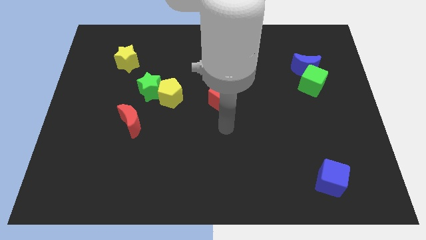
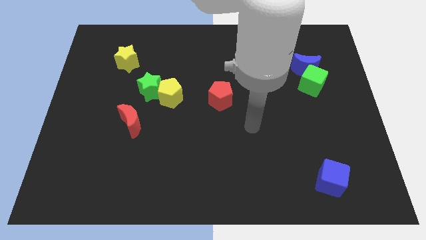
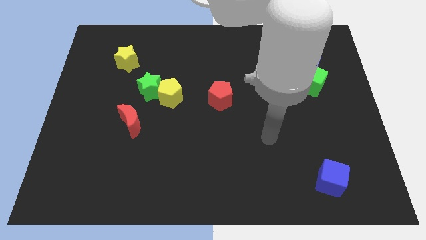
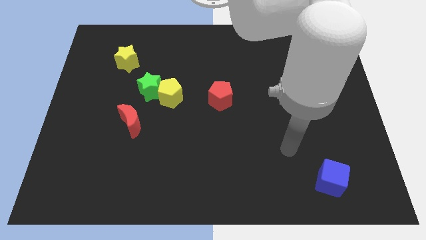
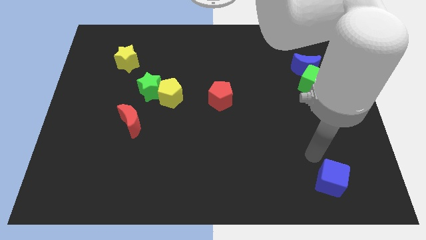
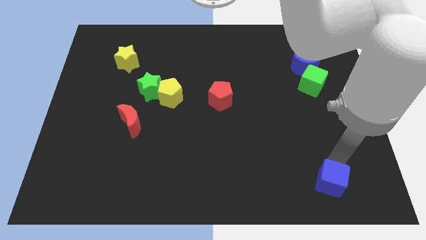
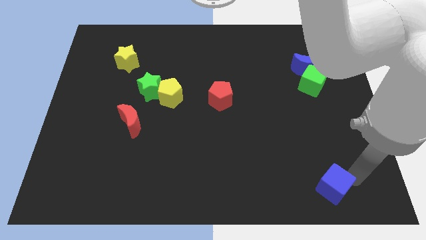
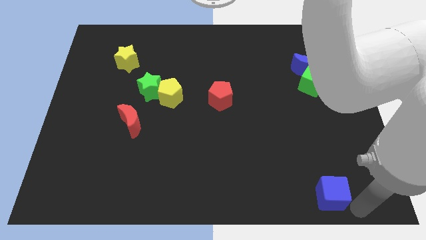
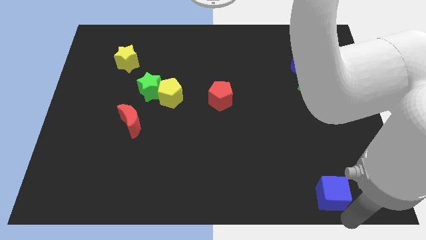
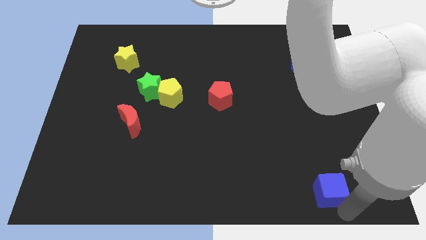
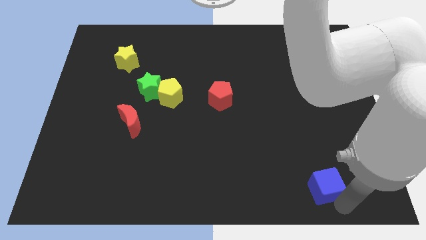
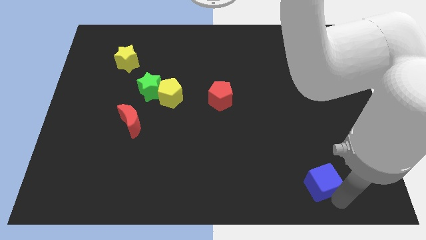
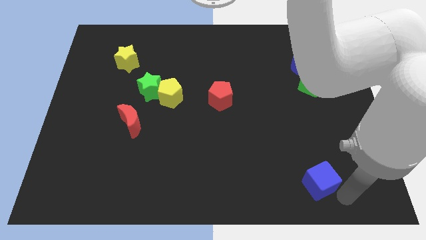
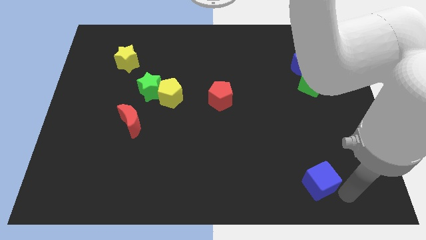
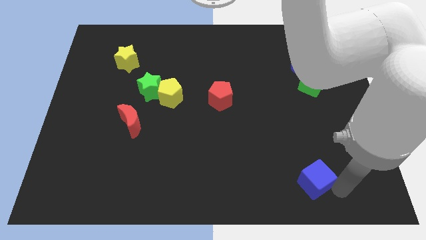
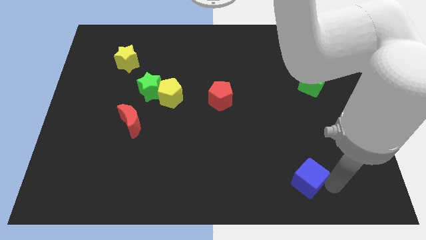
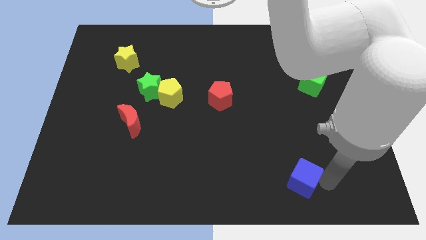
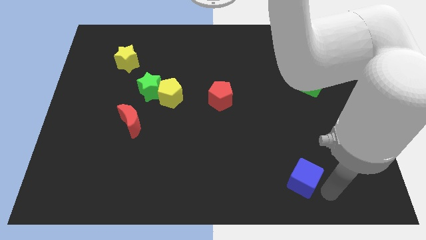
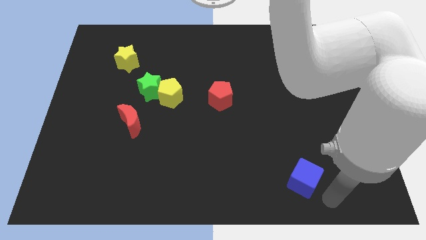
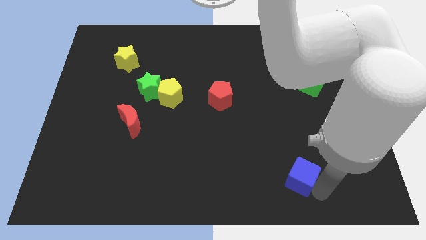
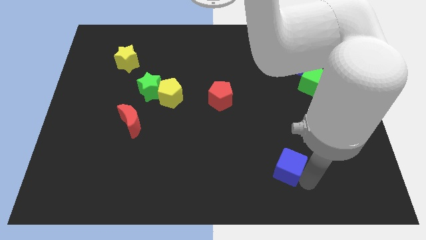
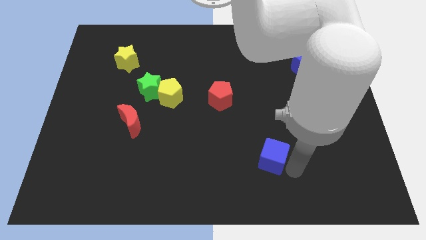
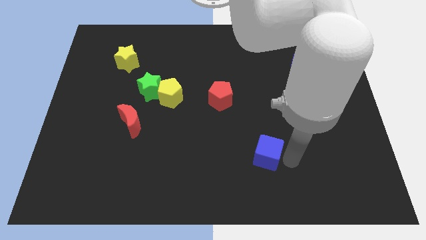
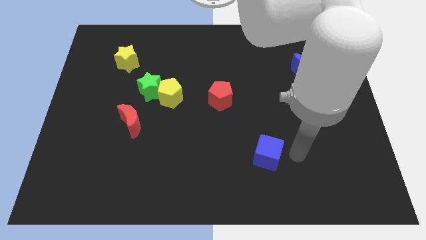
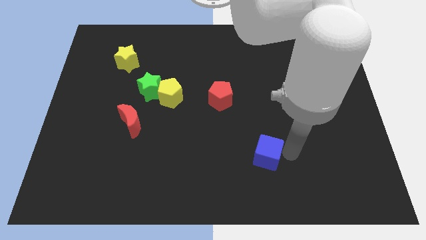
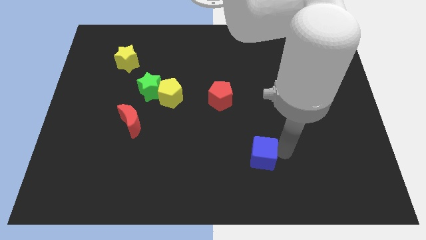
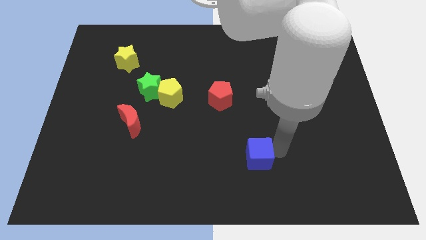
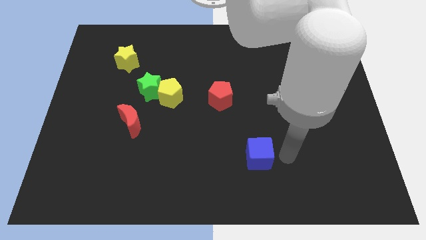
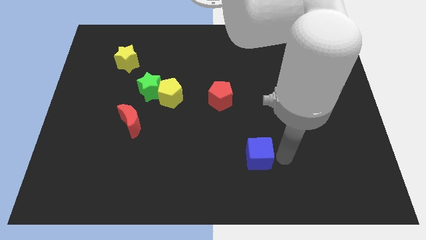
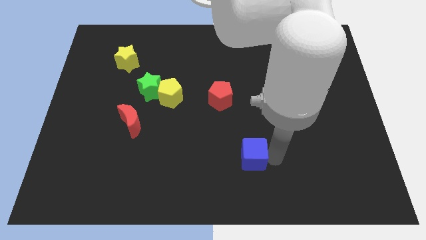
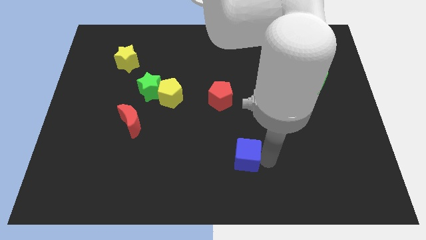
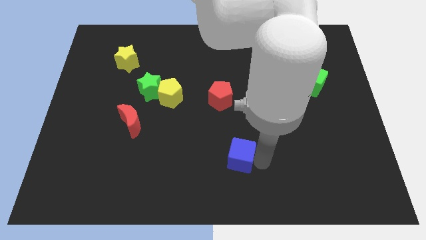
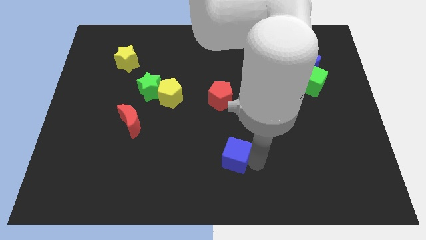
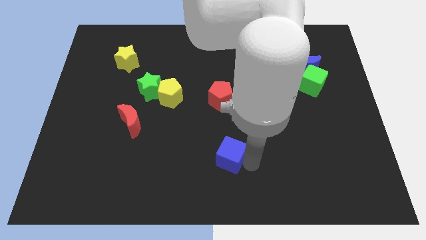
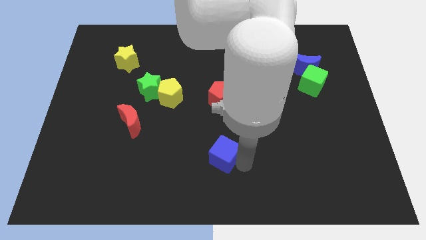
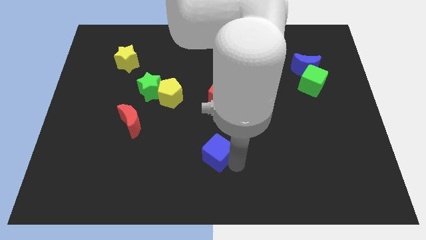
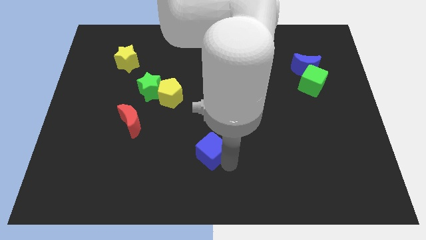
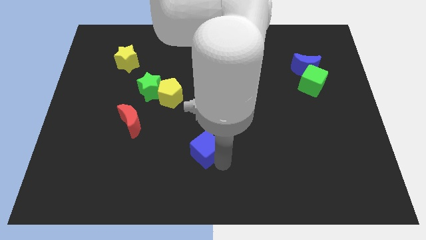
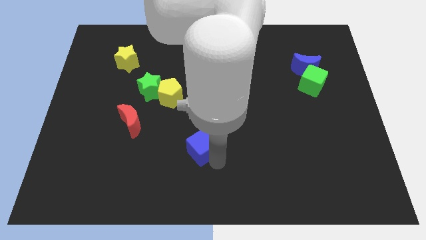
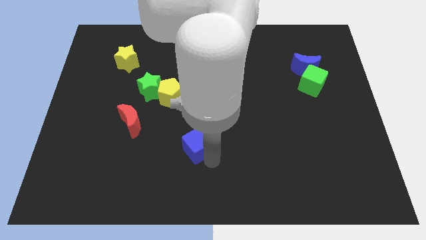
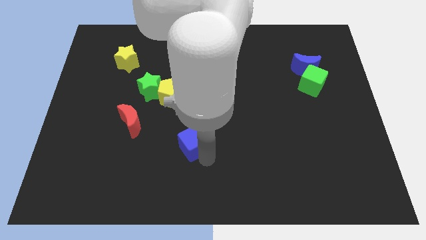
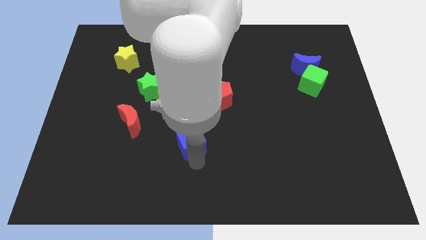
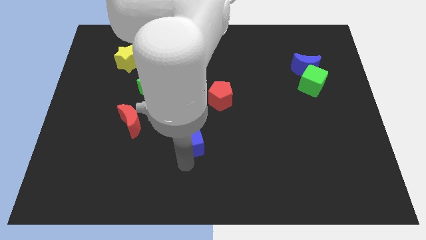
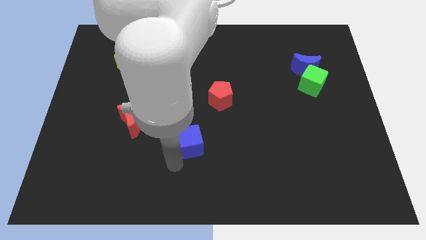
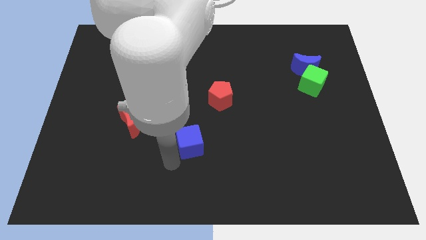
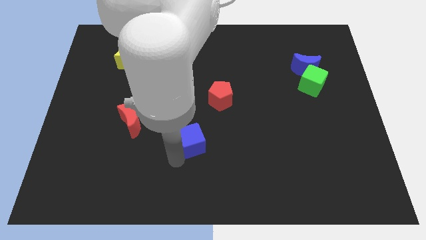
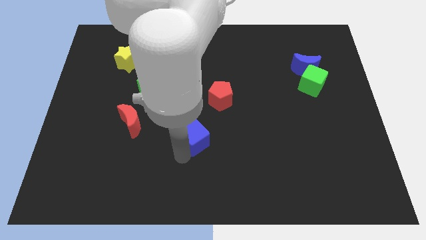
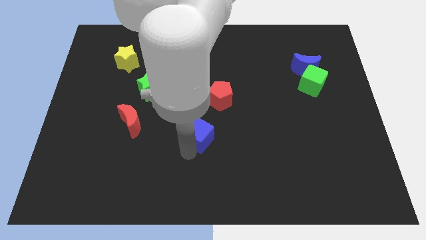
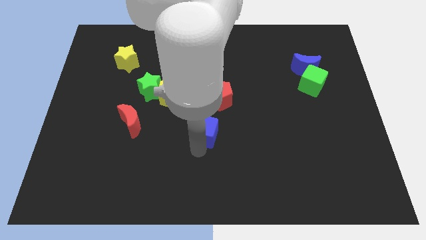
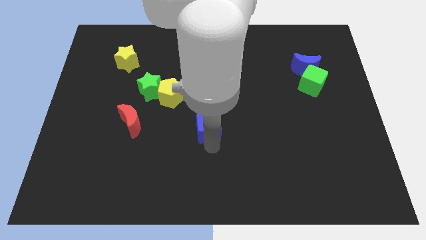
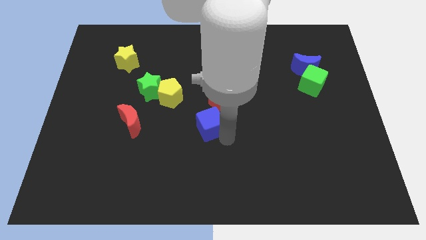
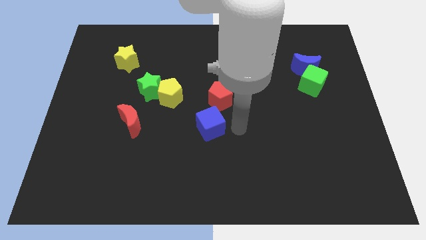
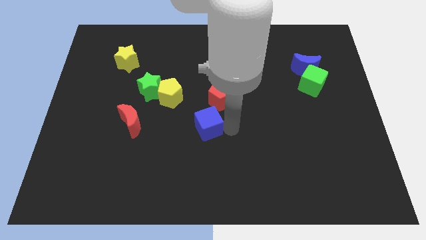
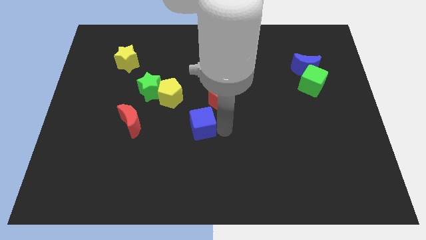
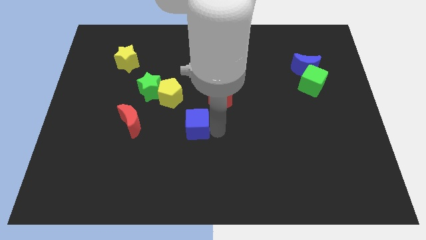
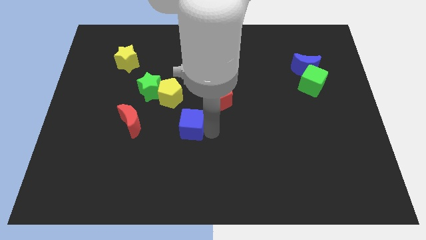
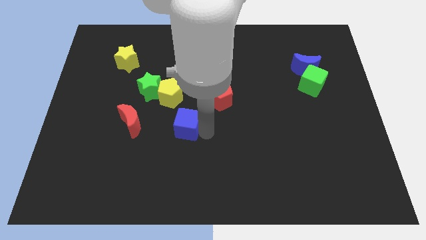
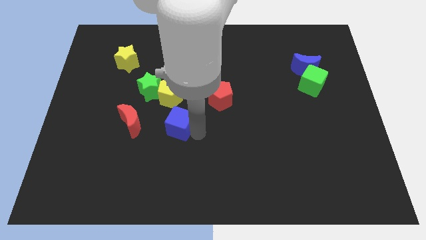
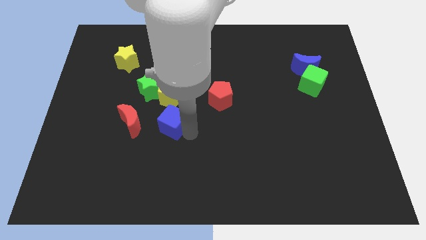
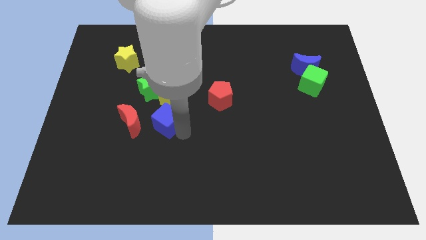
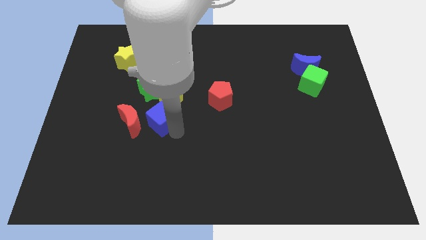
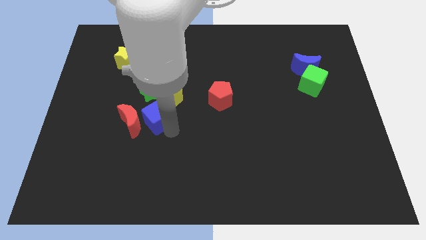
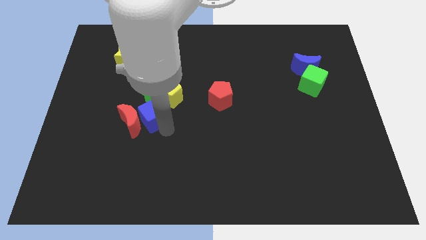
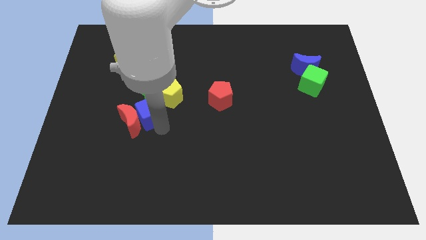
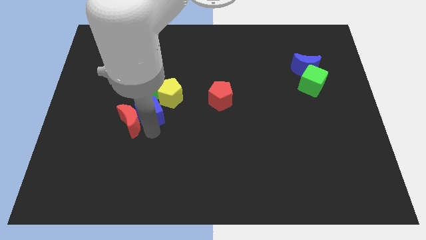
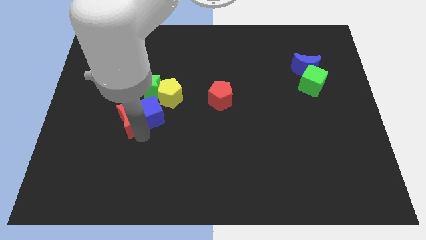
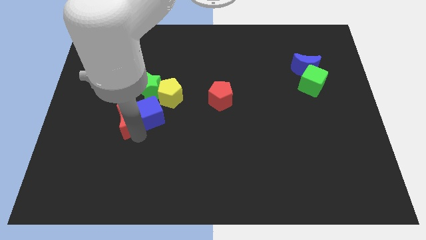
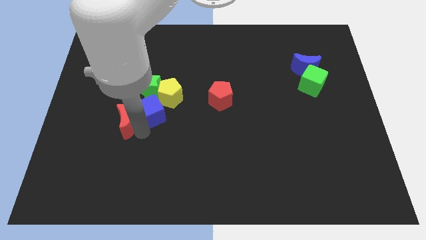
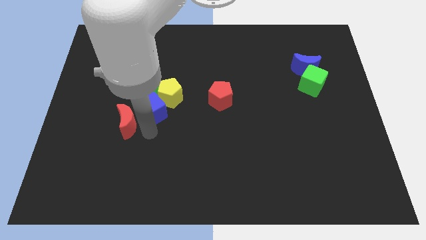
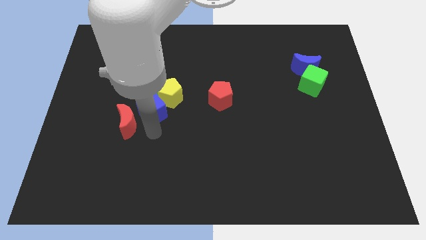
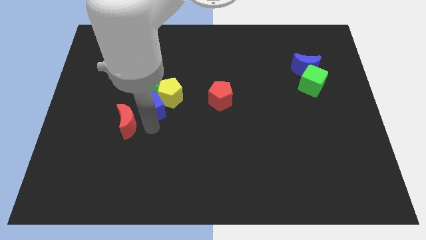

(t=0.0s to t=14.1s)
put the blue cube towards the green star
